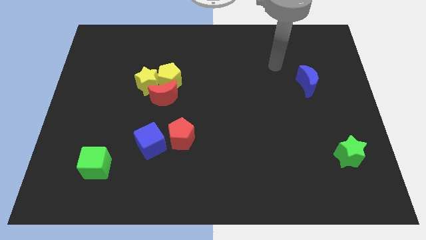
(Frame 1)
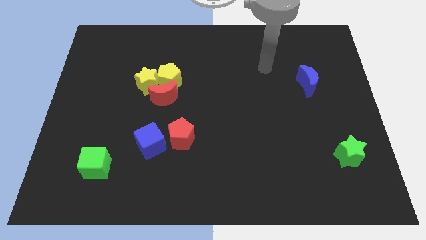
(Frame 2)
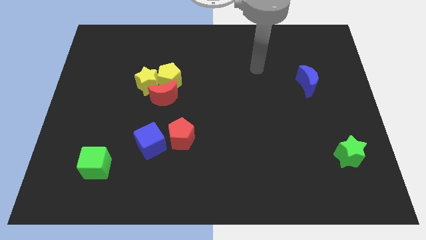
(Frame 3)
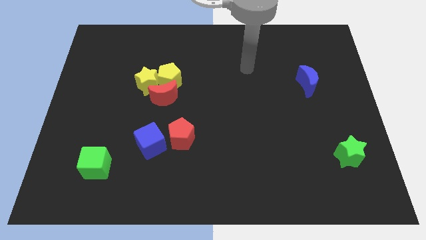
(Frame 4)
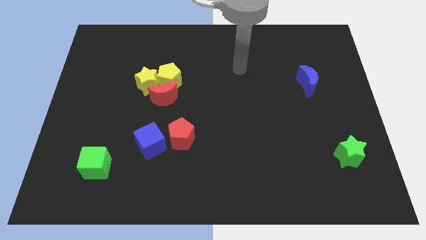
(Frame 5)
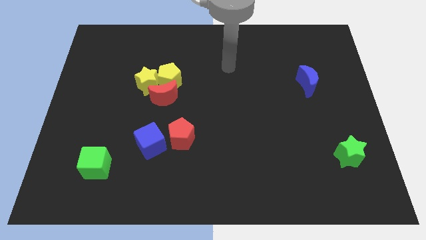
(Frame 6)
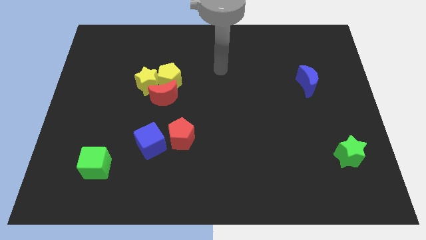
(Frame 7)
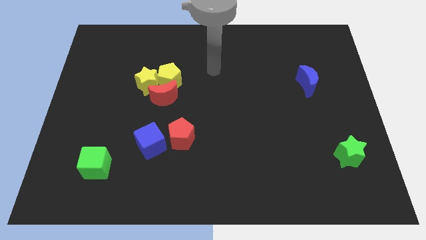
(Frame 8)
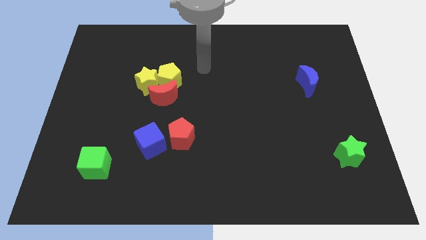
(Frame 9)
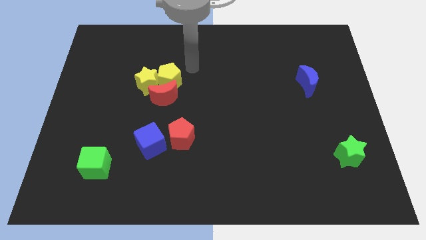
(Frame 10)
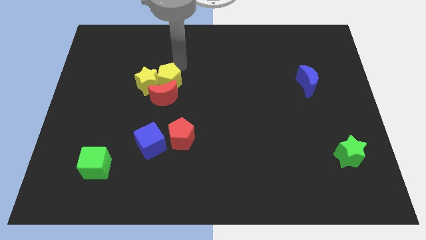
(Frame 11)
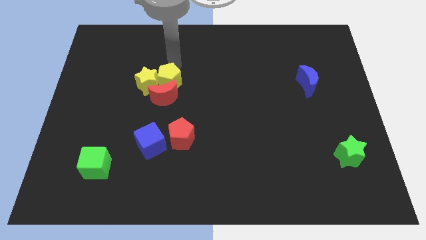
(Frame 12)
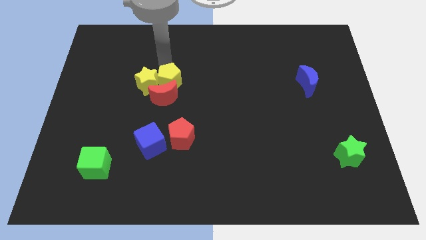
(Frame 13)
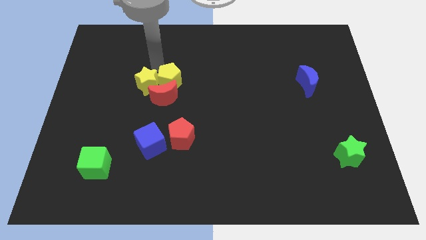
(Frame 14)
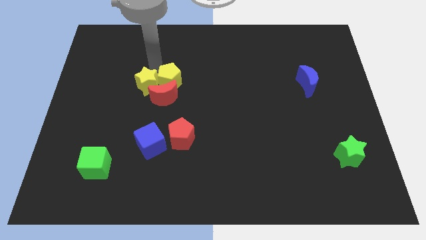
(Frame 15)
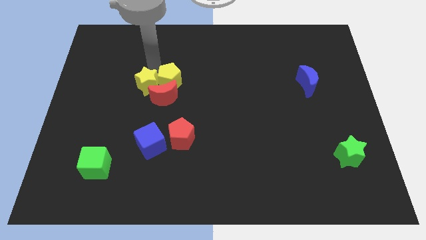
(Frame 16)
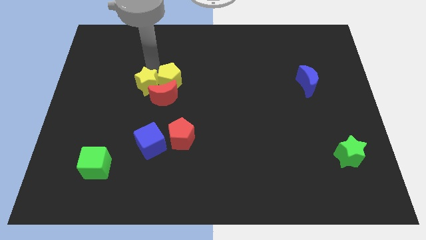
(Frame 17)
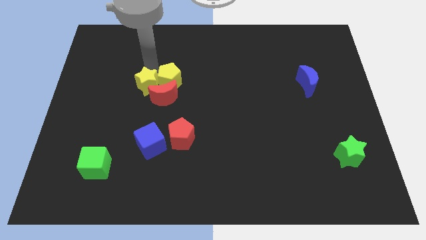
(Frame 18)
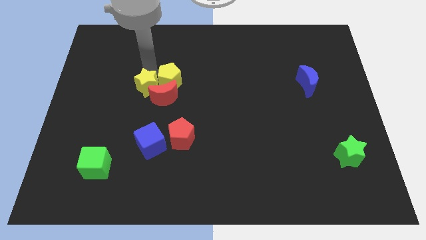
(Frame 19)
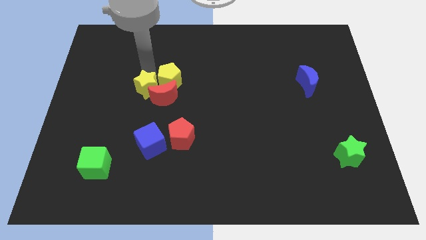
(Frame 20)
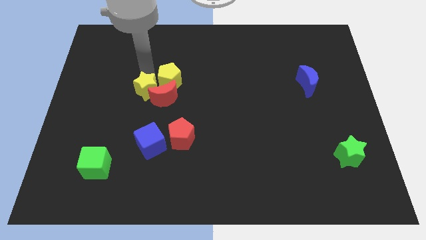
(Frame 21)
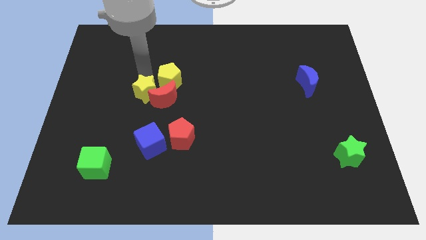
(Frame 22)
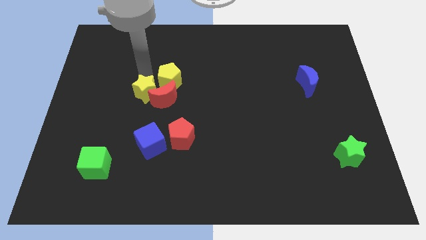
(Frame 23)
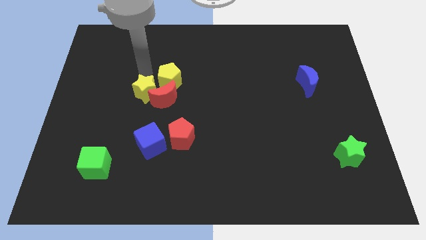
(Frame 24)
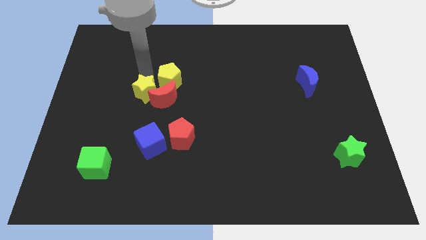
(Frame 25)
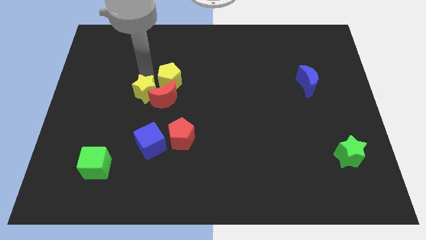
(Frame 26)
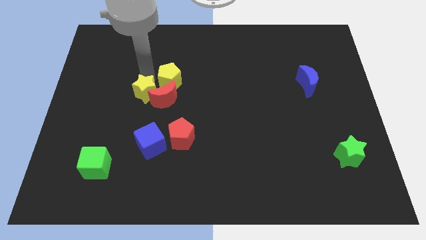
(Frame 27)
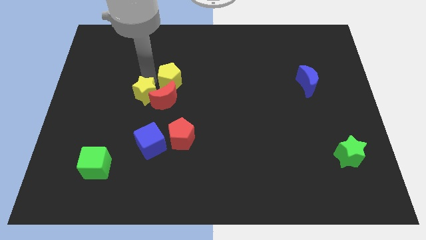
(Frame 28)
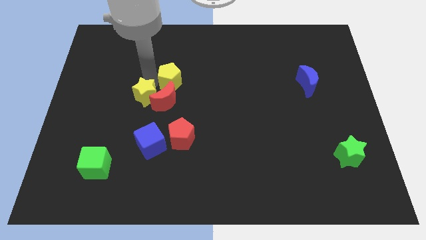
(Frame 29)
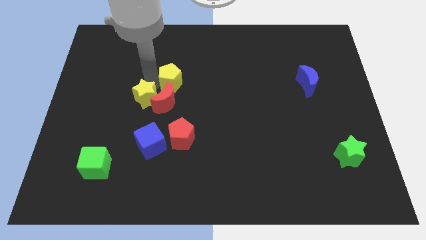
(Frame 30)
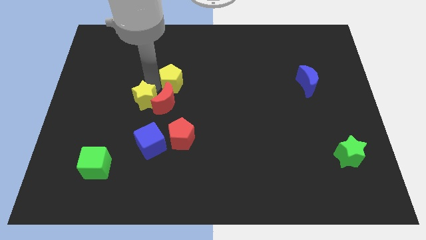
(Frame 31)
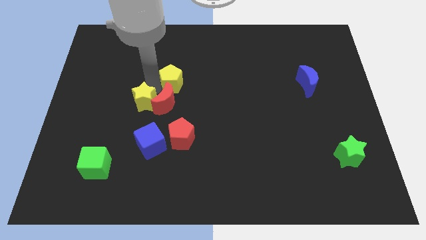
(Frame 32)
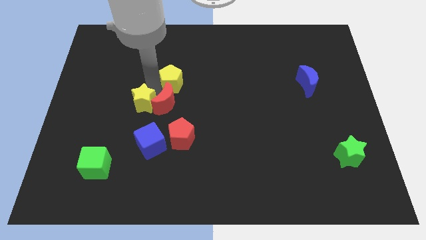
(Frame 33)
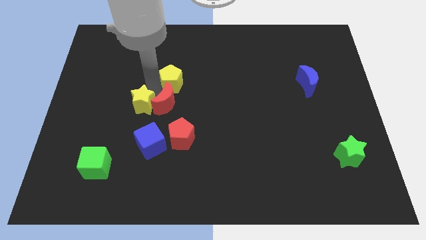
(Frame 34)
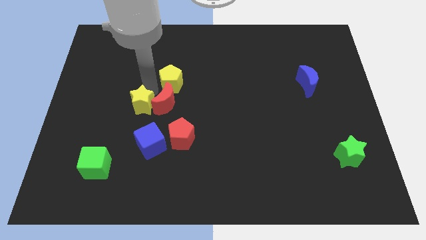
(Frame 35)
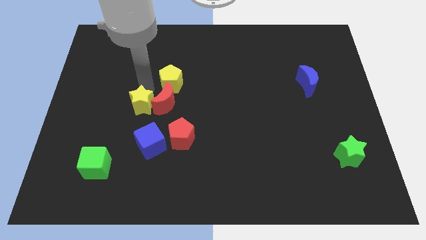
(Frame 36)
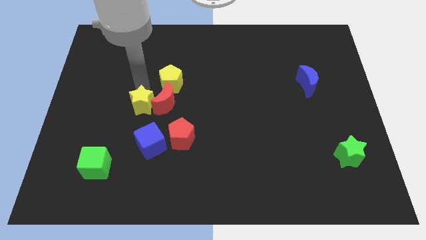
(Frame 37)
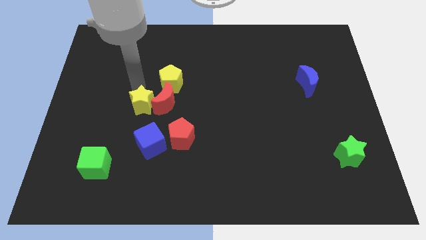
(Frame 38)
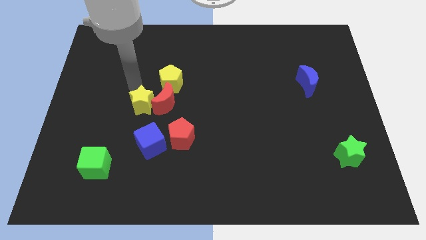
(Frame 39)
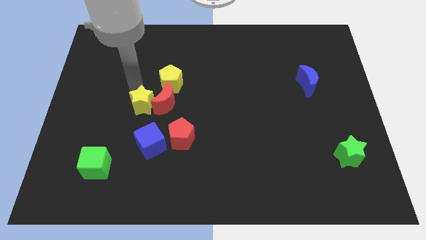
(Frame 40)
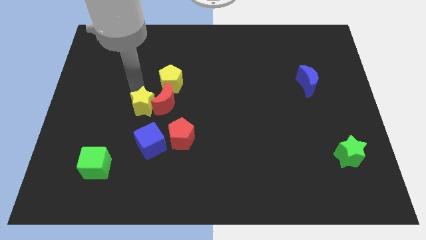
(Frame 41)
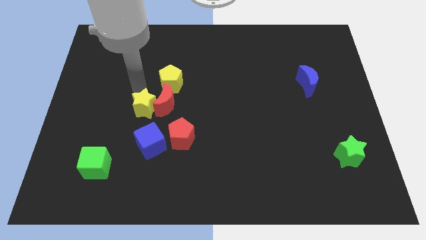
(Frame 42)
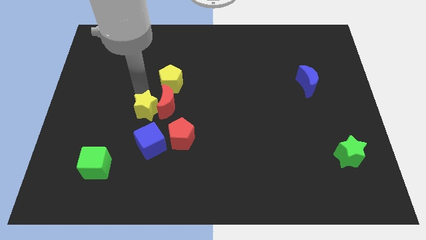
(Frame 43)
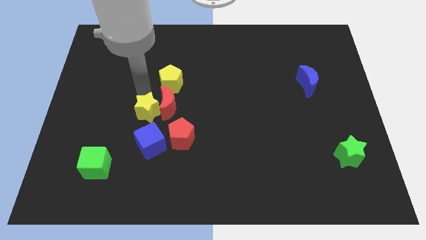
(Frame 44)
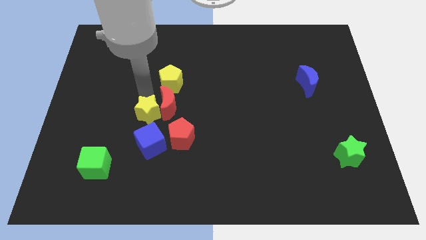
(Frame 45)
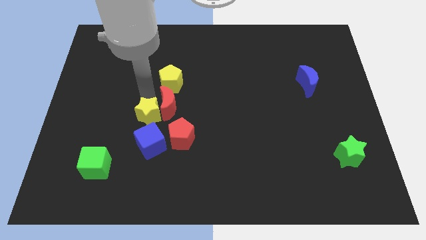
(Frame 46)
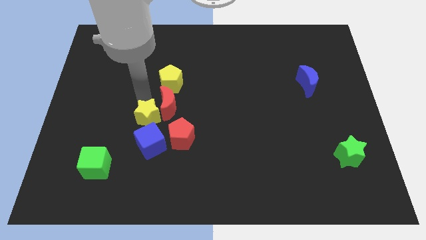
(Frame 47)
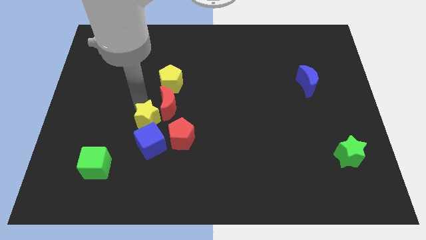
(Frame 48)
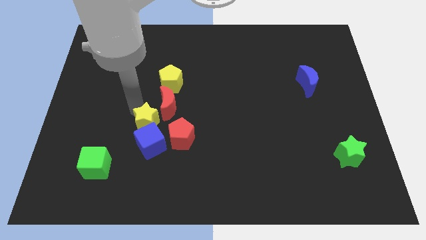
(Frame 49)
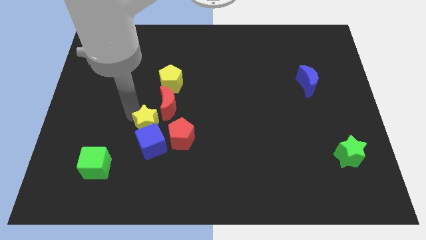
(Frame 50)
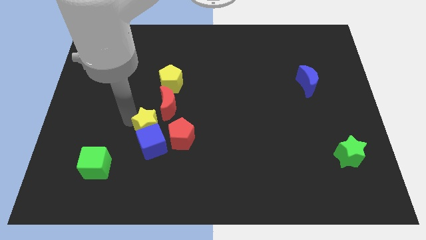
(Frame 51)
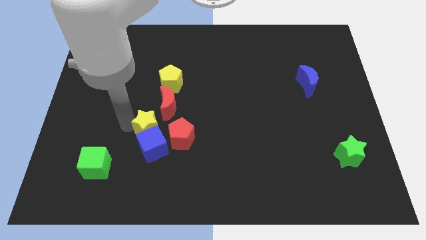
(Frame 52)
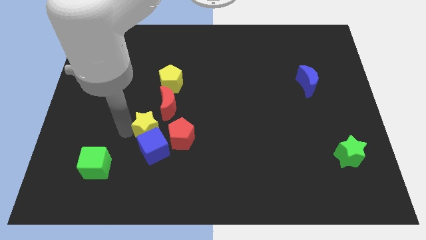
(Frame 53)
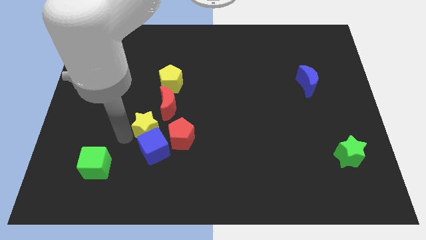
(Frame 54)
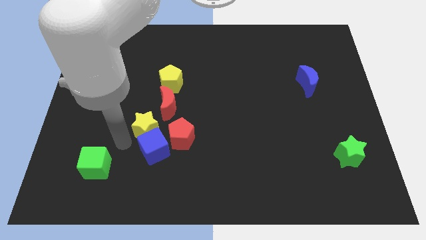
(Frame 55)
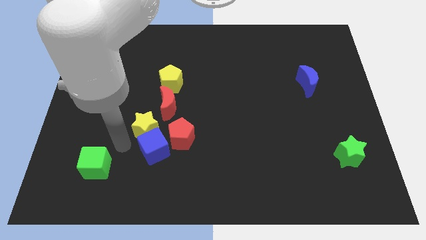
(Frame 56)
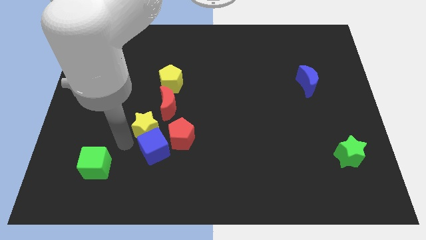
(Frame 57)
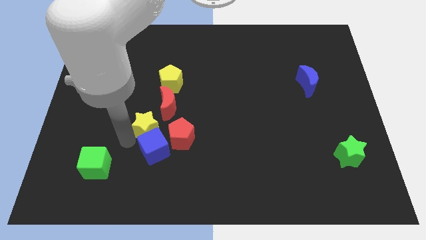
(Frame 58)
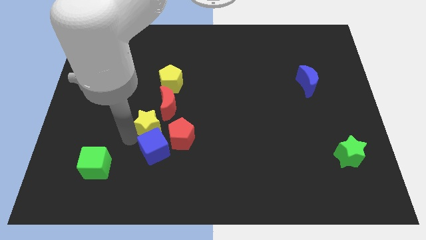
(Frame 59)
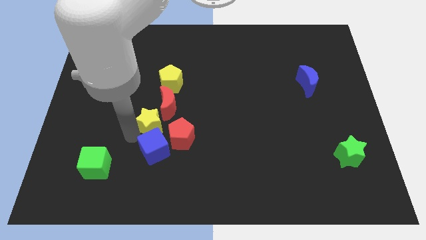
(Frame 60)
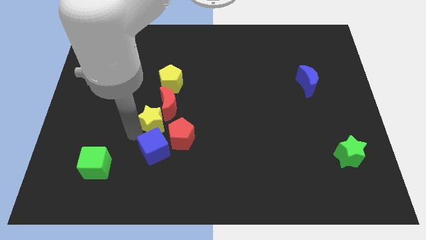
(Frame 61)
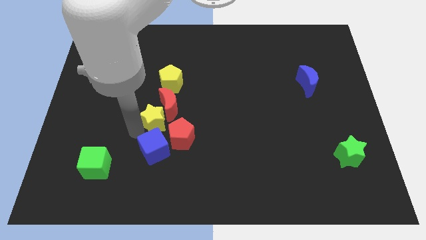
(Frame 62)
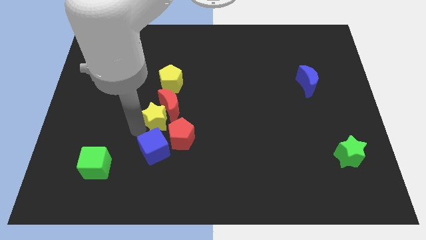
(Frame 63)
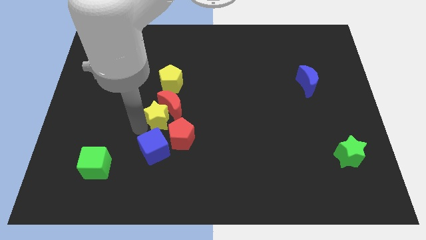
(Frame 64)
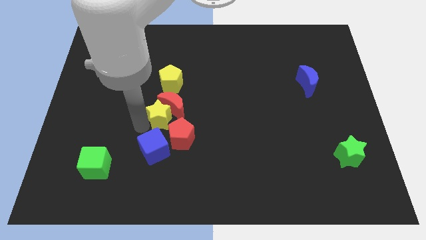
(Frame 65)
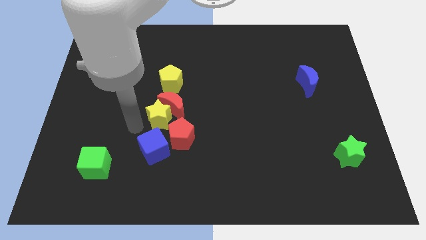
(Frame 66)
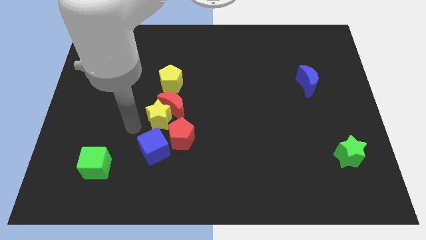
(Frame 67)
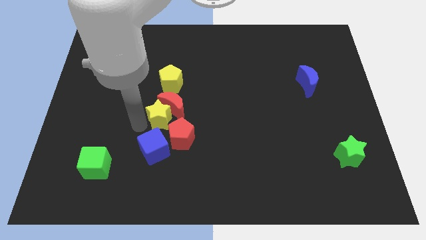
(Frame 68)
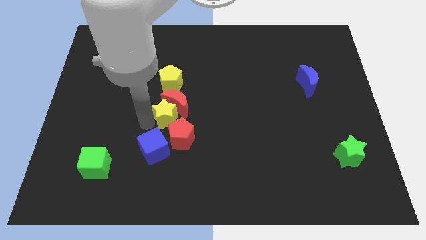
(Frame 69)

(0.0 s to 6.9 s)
move the yellow star to the middle of the board
